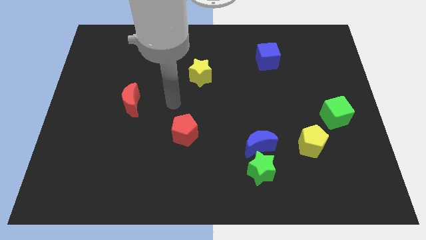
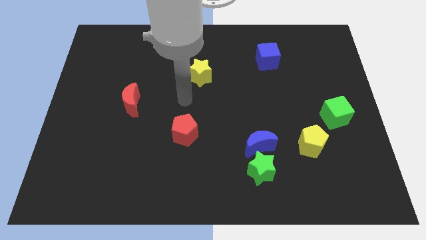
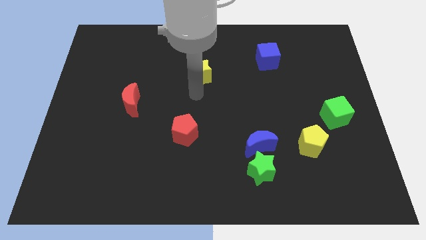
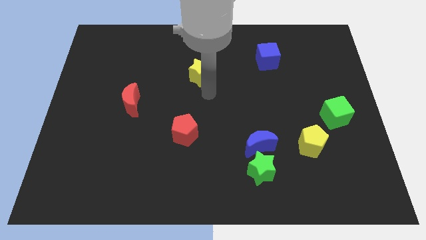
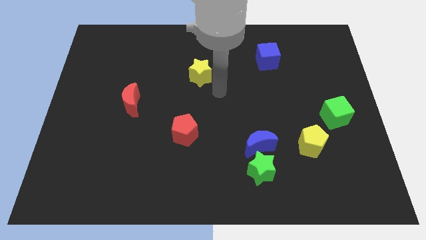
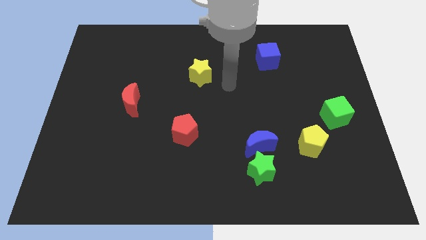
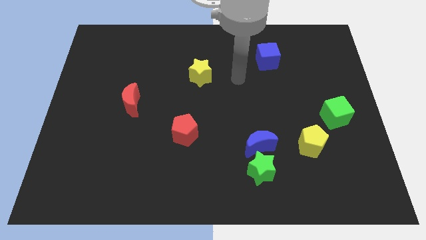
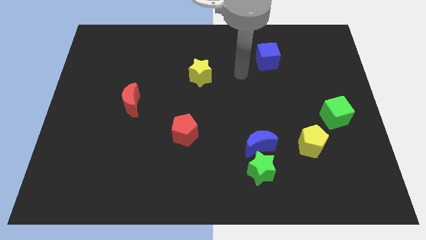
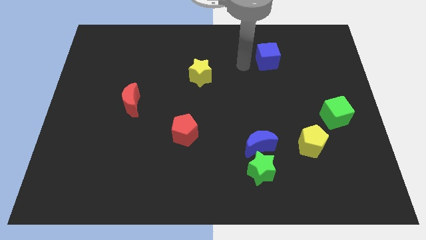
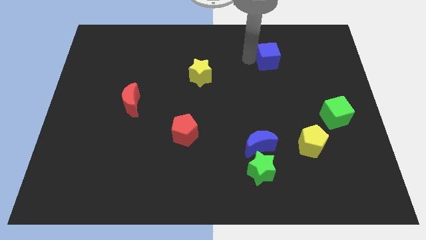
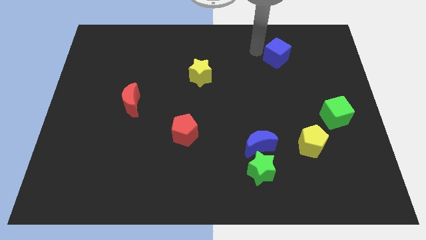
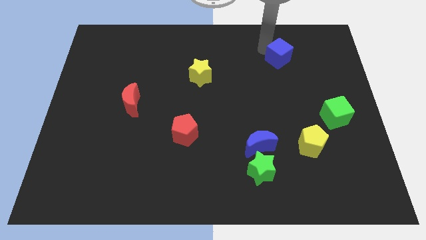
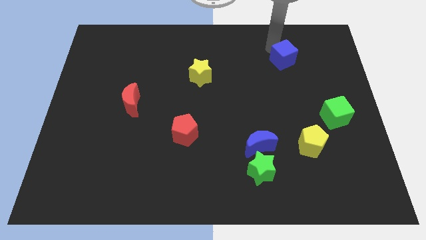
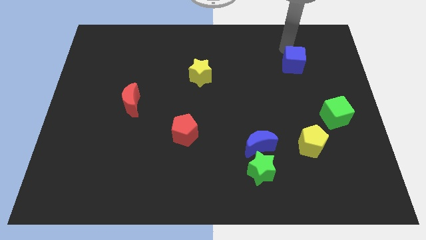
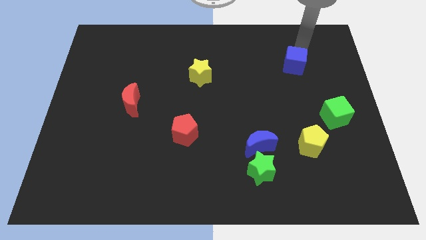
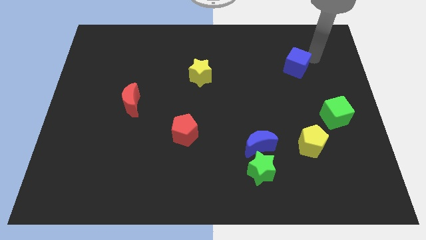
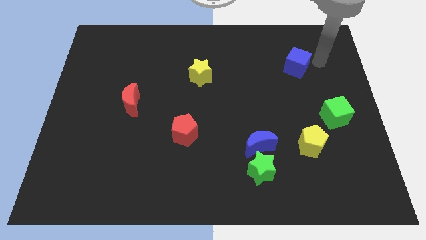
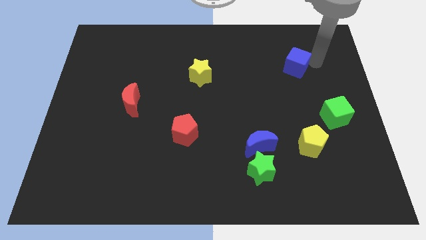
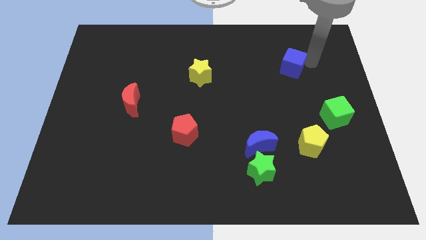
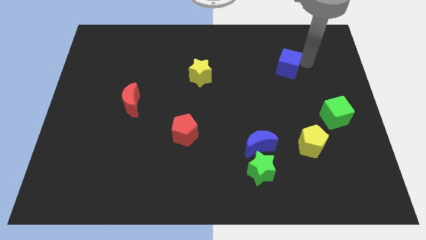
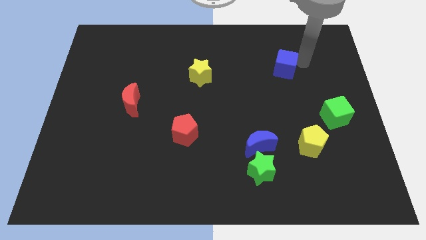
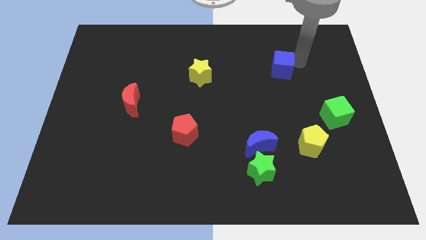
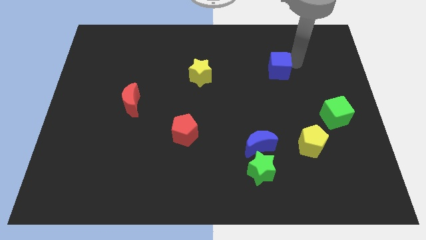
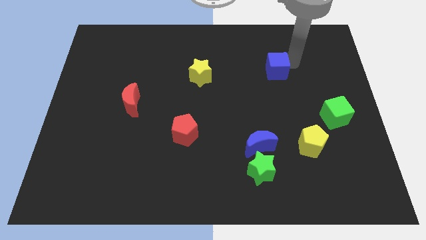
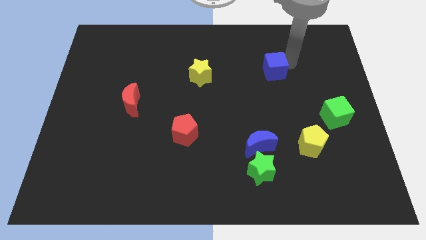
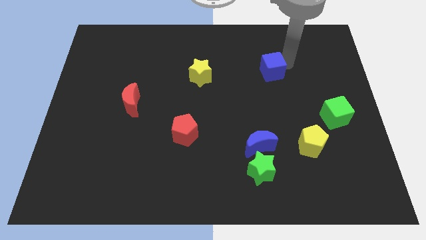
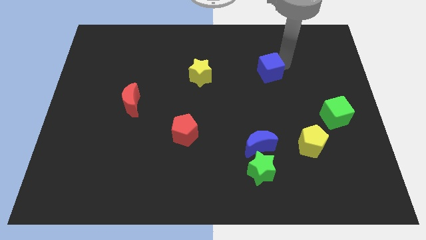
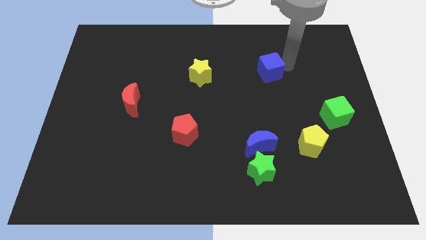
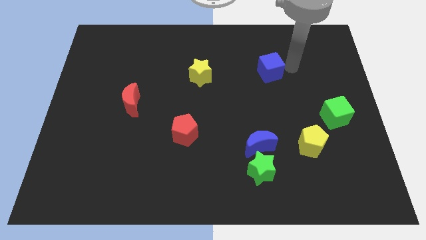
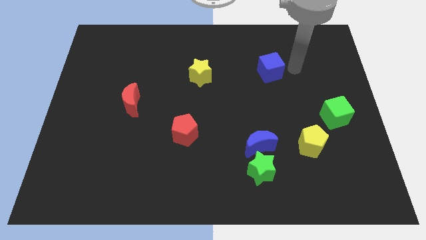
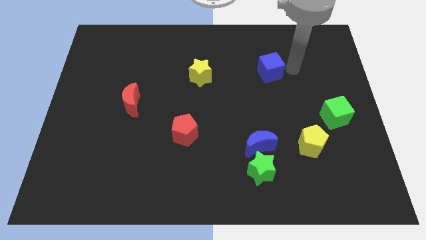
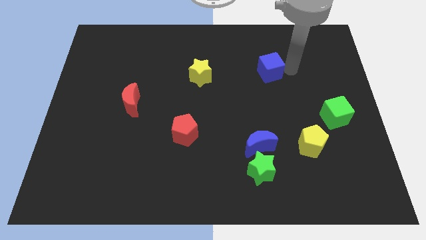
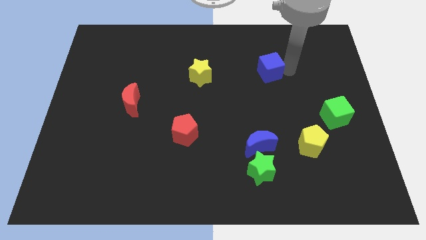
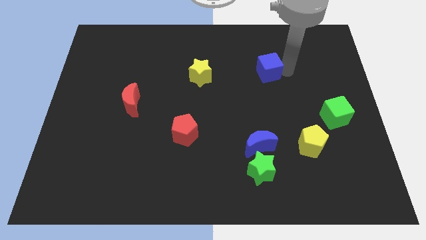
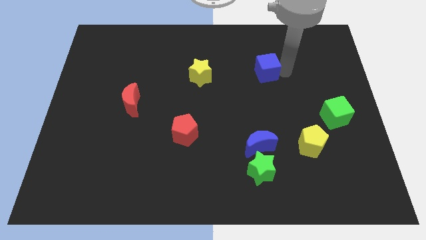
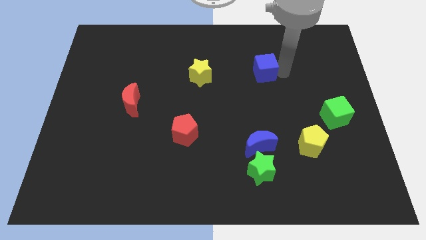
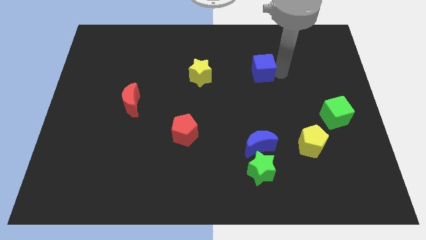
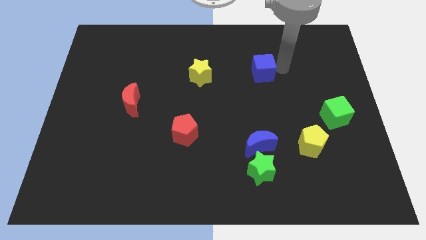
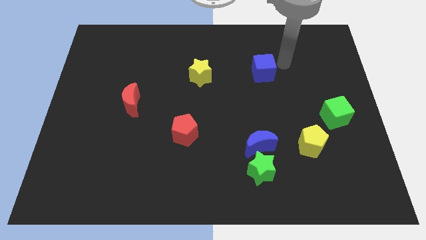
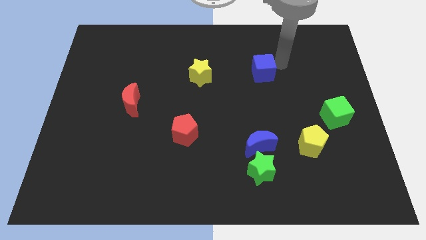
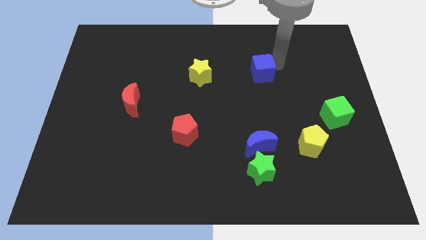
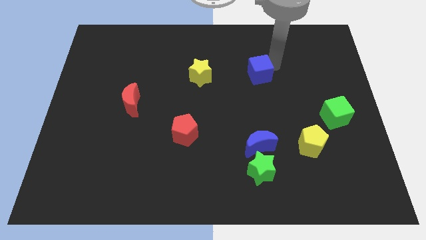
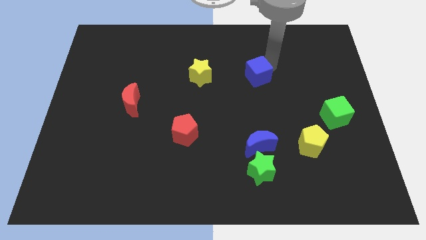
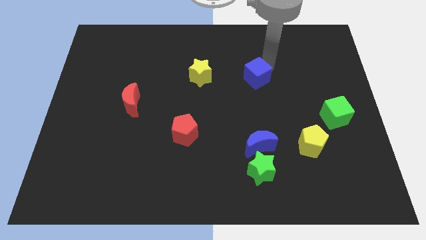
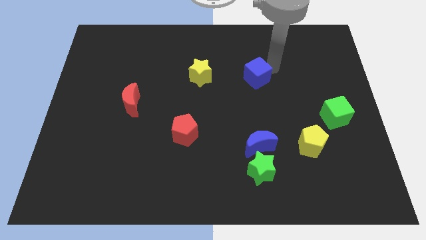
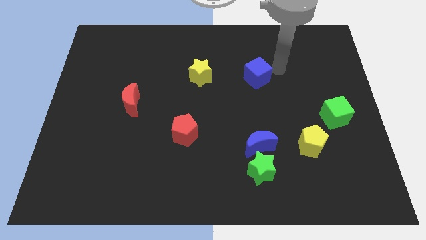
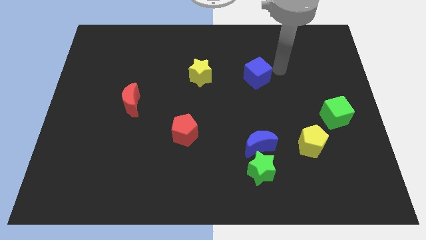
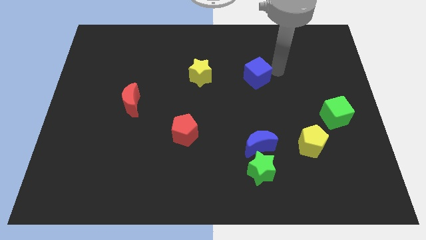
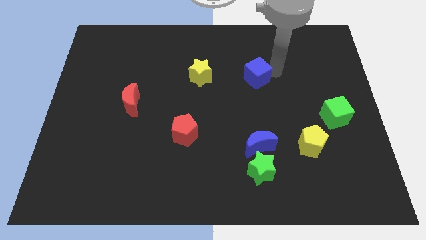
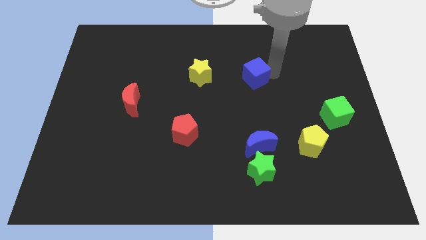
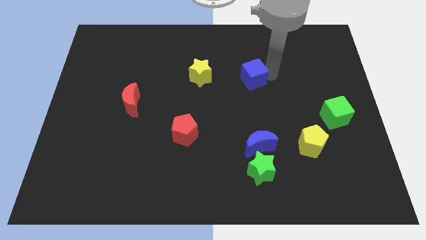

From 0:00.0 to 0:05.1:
put the blue cube to the middle of the board

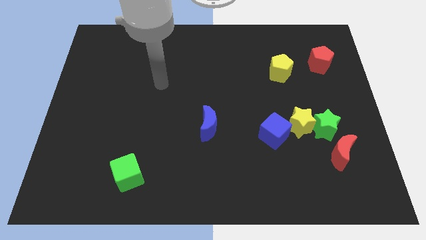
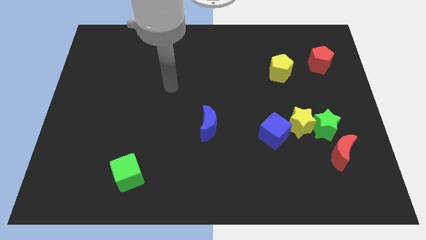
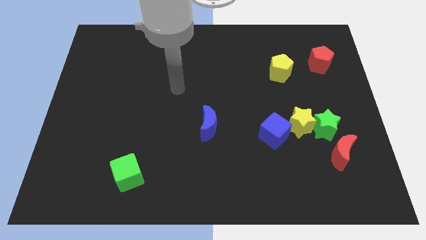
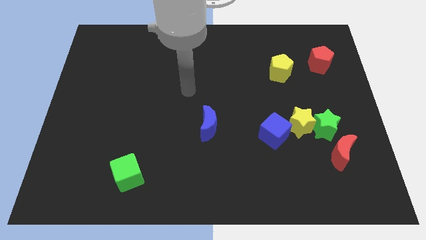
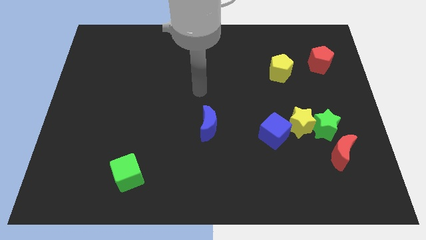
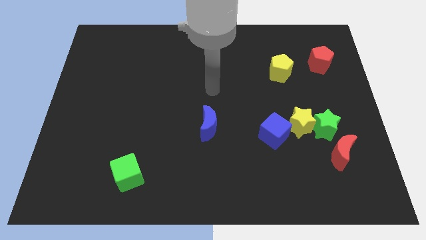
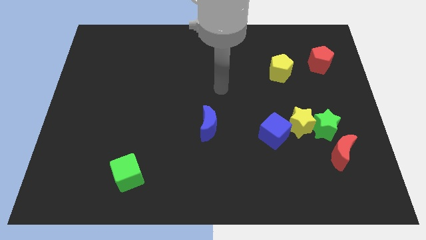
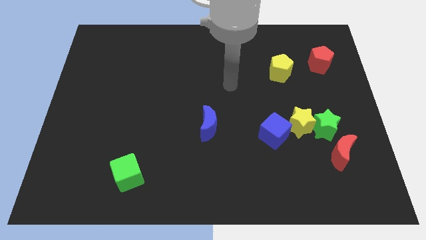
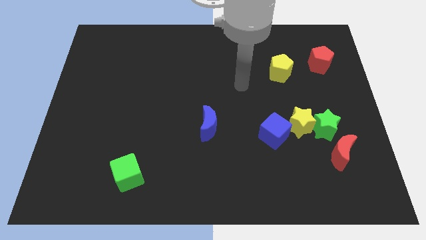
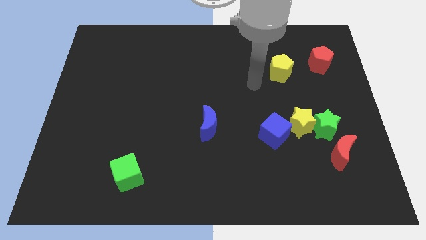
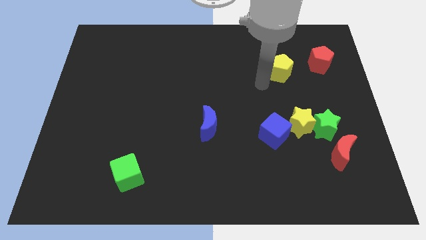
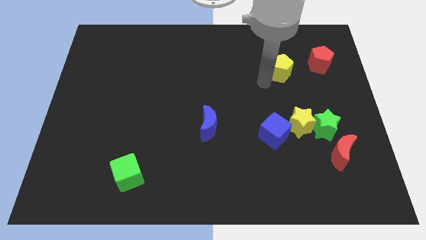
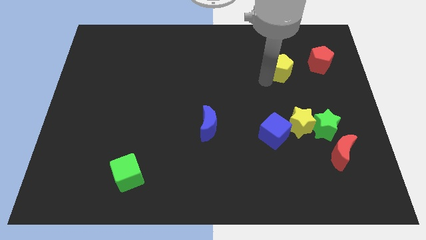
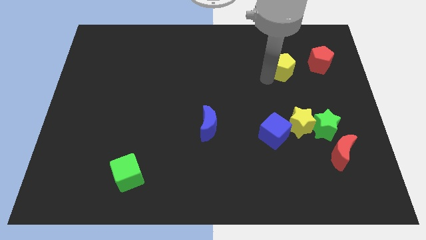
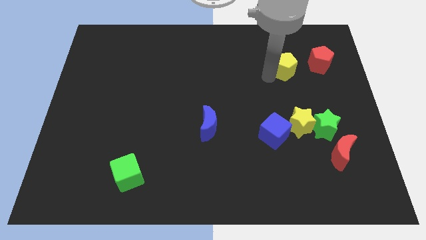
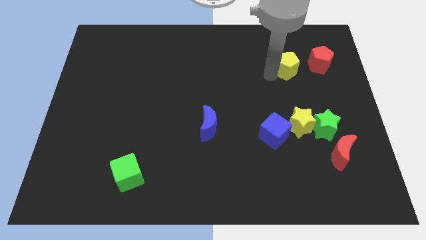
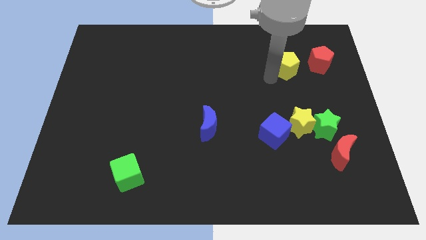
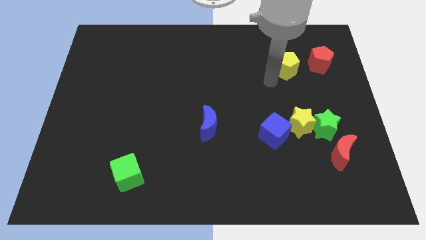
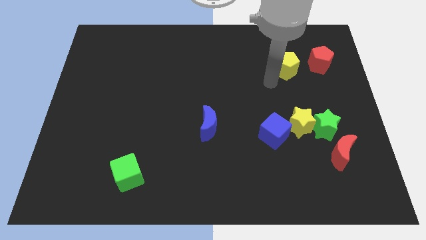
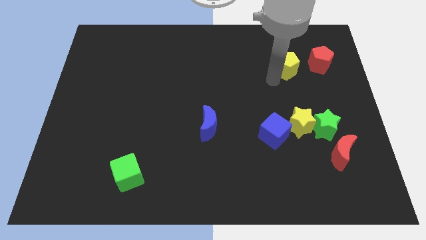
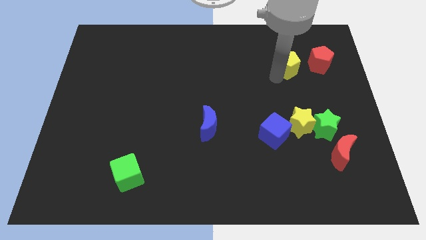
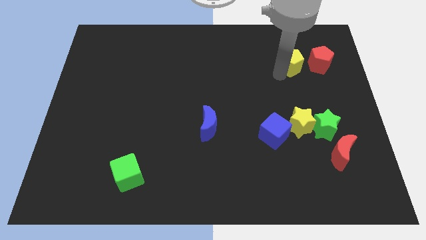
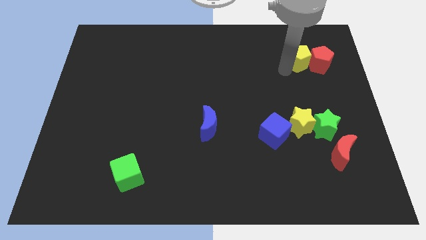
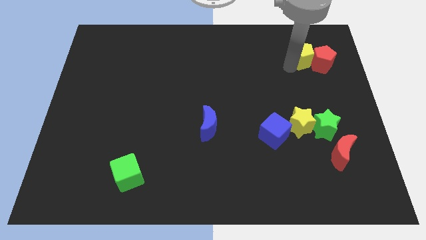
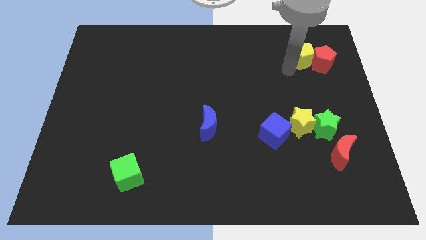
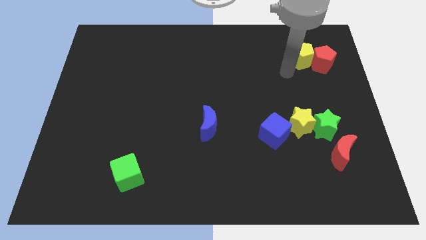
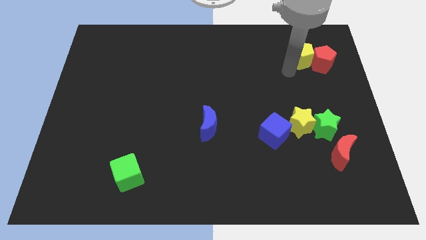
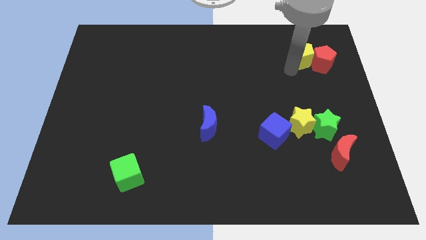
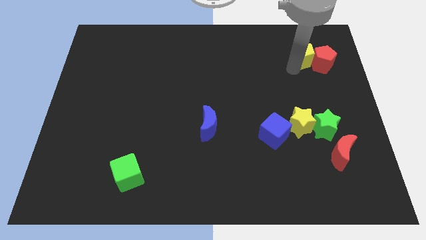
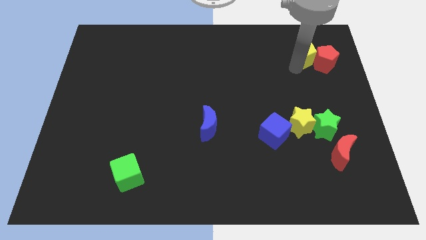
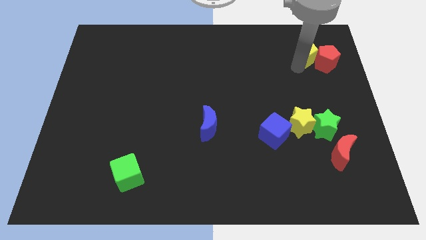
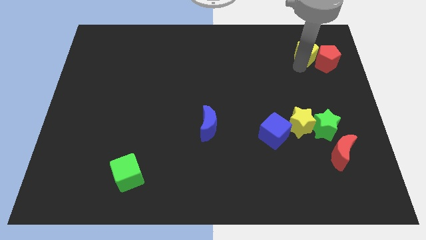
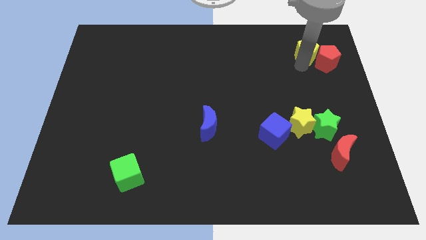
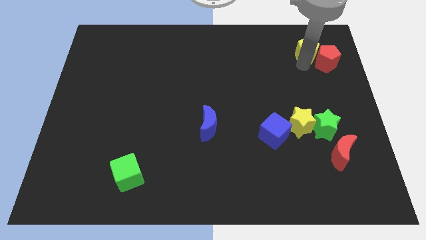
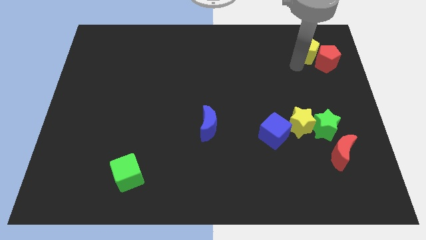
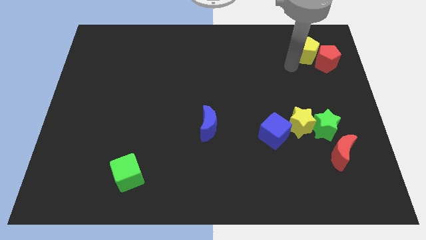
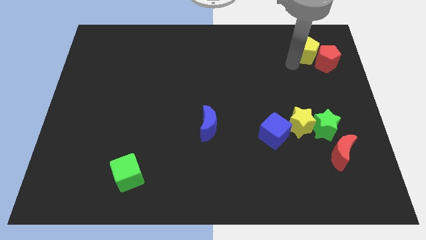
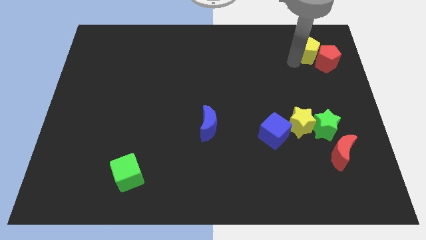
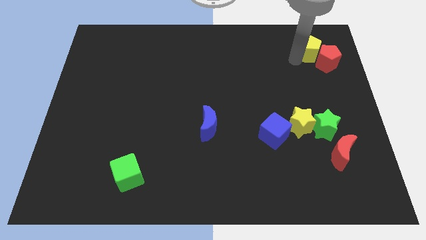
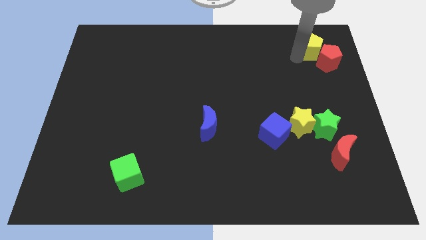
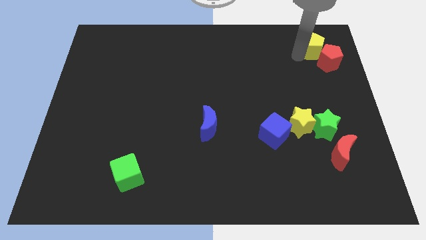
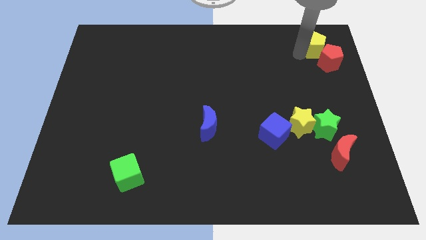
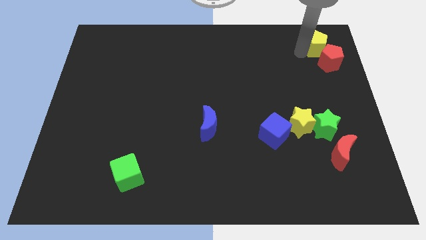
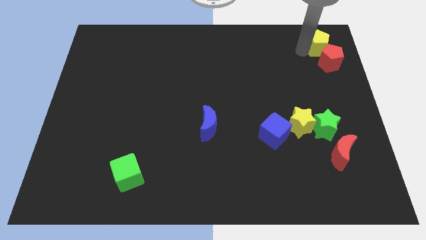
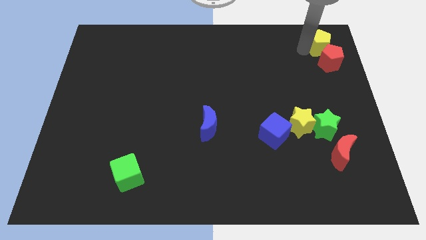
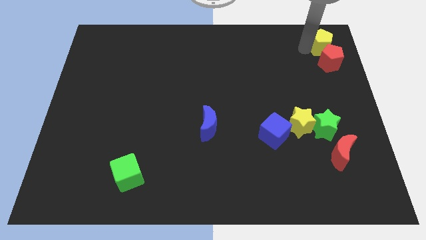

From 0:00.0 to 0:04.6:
put the yellow pentagon to the top right
